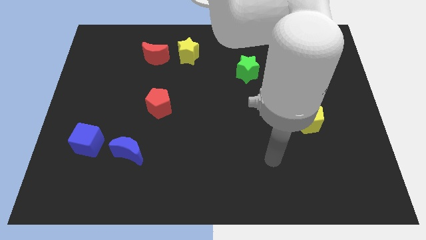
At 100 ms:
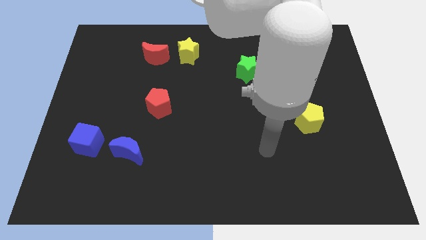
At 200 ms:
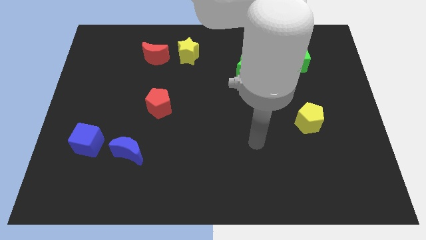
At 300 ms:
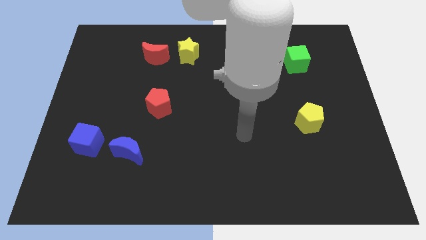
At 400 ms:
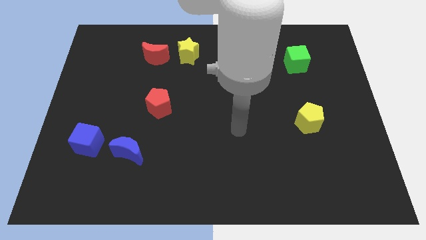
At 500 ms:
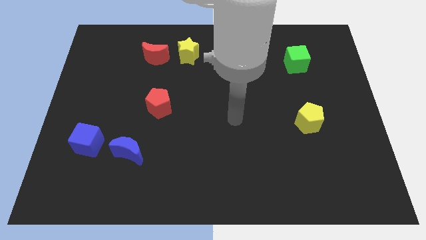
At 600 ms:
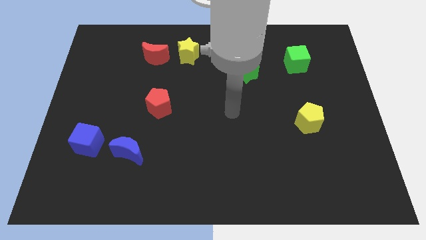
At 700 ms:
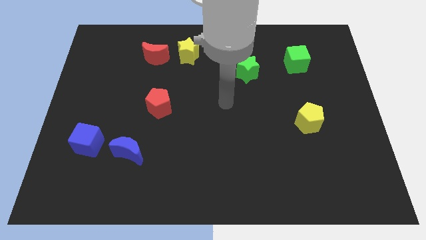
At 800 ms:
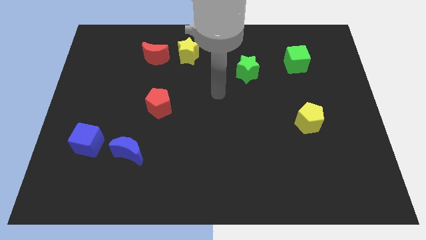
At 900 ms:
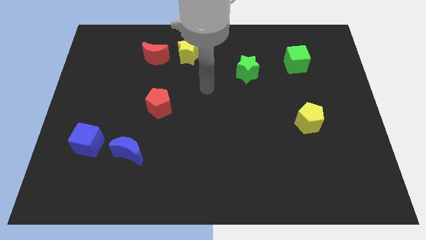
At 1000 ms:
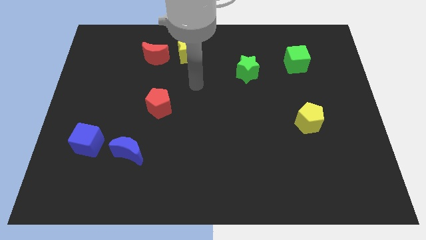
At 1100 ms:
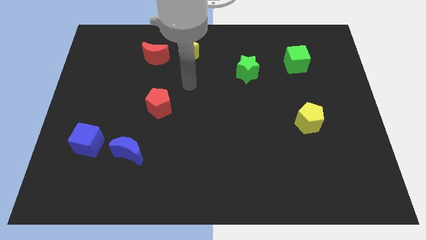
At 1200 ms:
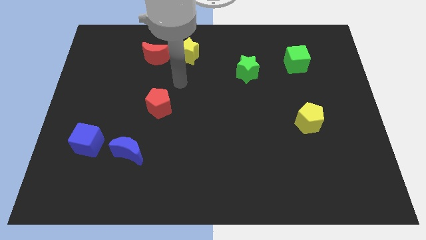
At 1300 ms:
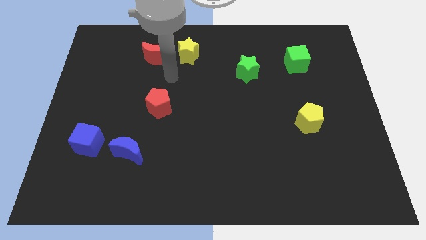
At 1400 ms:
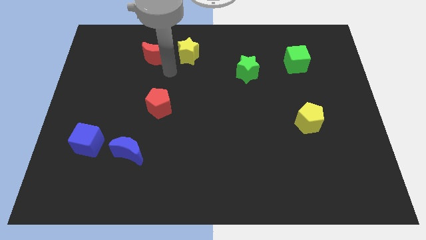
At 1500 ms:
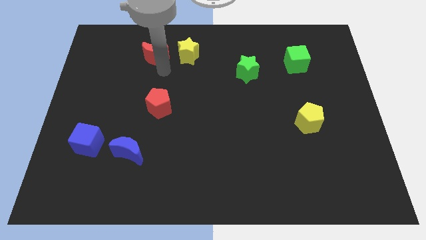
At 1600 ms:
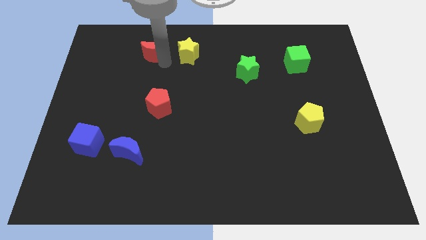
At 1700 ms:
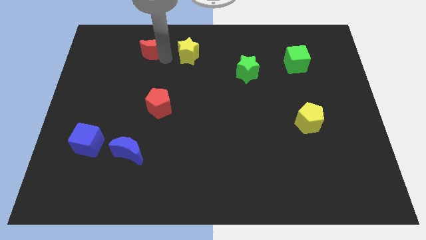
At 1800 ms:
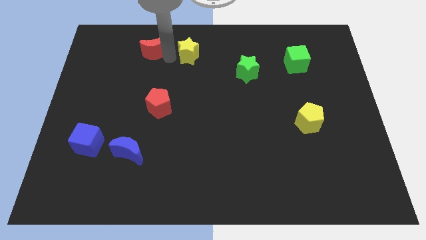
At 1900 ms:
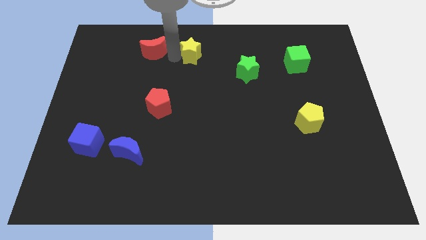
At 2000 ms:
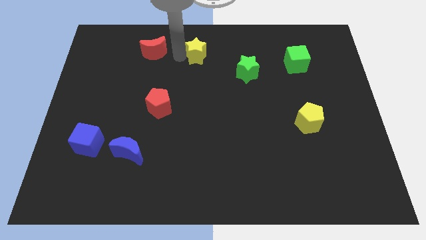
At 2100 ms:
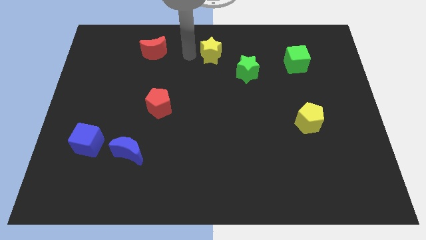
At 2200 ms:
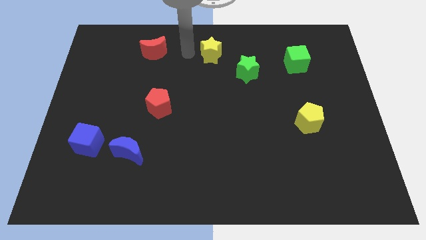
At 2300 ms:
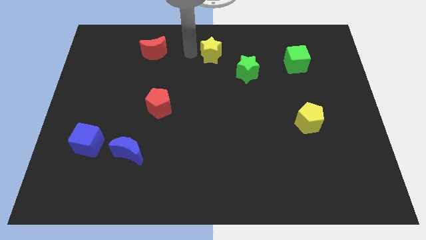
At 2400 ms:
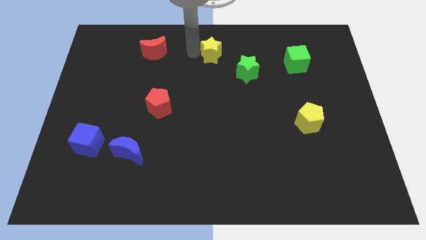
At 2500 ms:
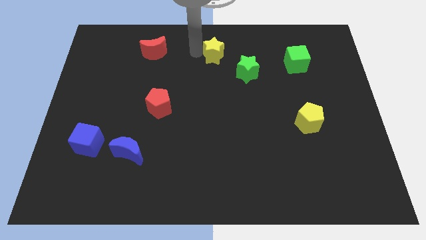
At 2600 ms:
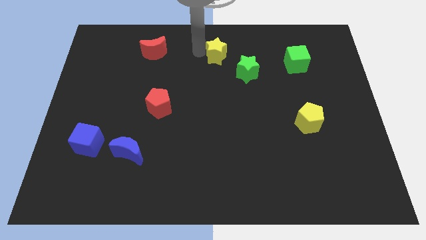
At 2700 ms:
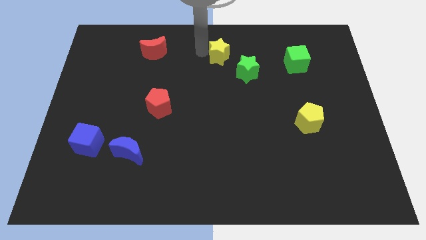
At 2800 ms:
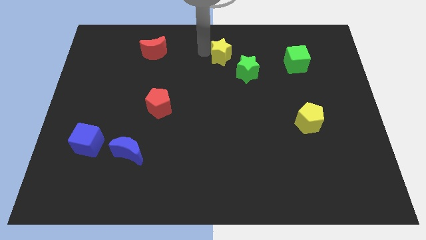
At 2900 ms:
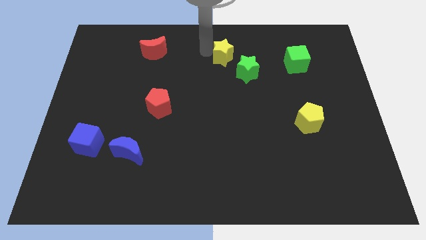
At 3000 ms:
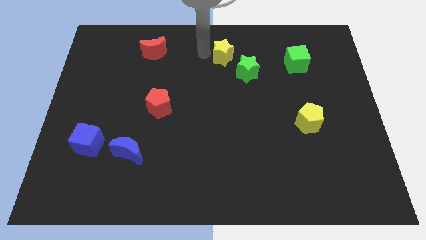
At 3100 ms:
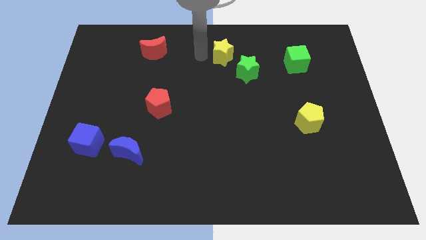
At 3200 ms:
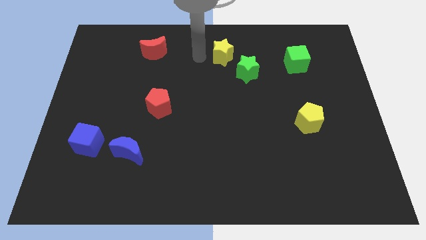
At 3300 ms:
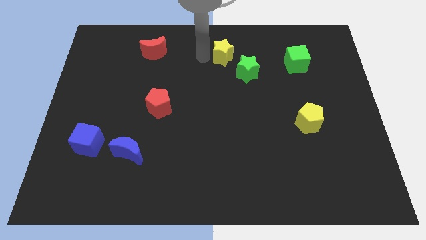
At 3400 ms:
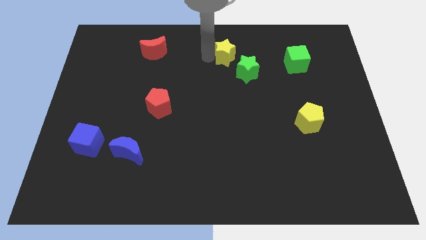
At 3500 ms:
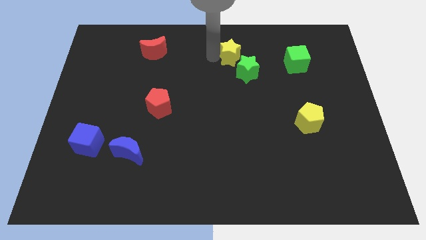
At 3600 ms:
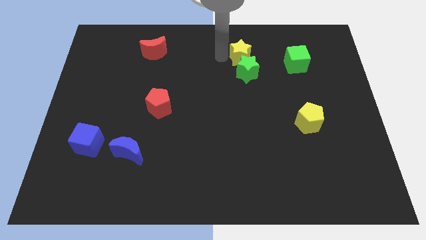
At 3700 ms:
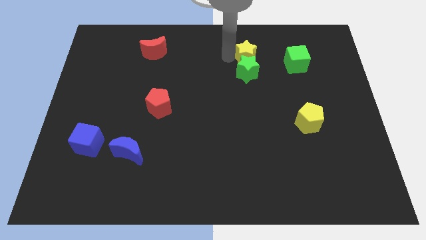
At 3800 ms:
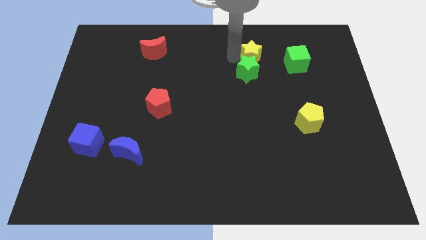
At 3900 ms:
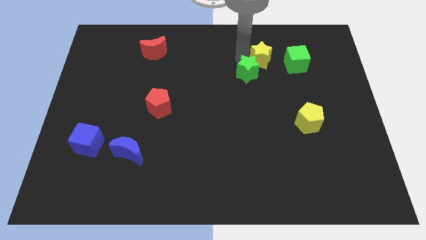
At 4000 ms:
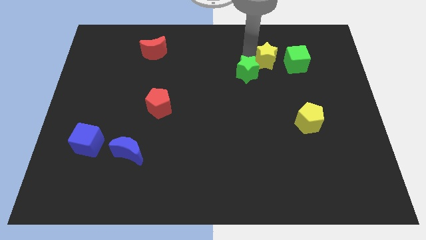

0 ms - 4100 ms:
move the yellow star right

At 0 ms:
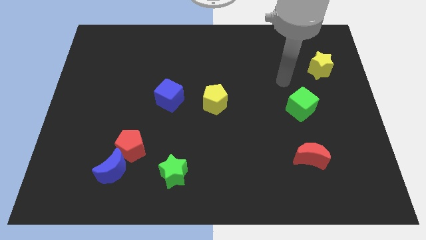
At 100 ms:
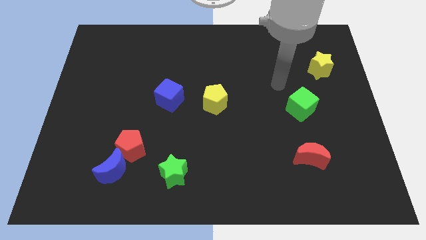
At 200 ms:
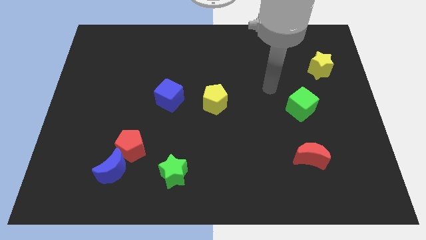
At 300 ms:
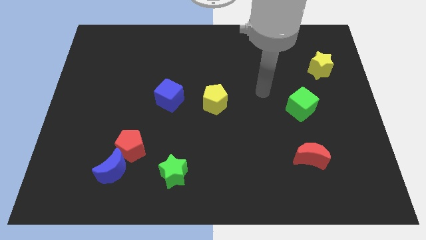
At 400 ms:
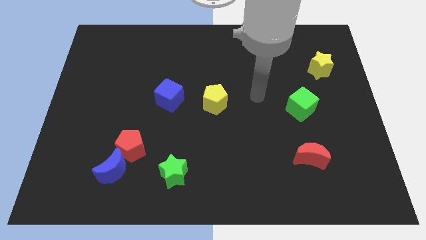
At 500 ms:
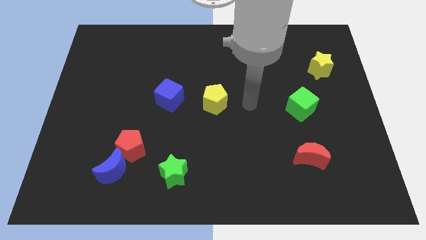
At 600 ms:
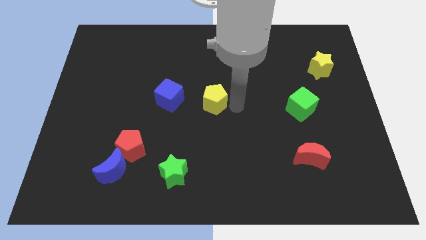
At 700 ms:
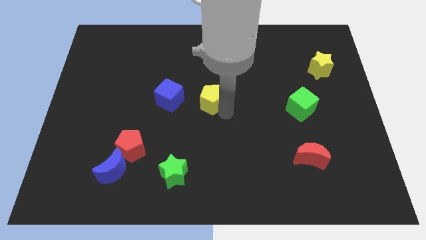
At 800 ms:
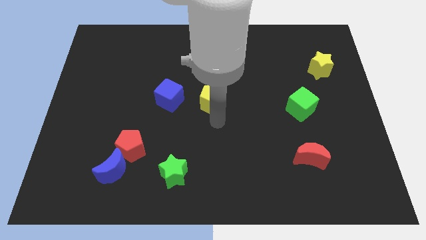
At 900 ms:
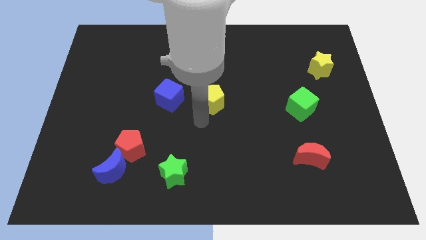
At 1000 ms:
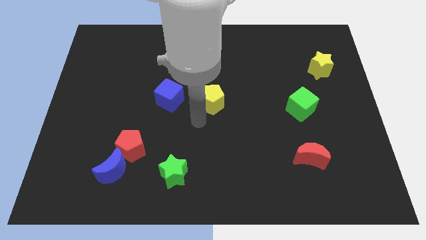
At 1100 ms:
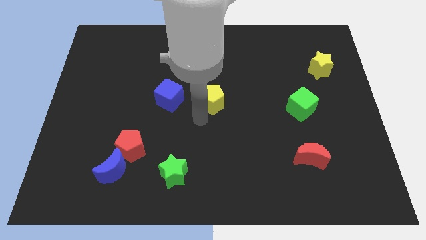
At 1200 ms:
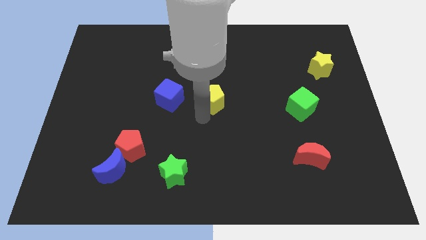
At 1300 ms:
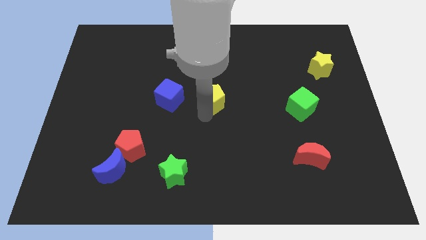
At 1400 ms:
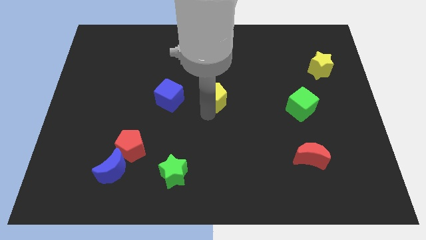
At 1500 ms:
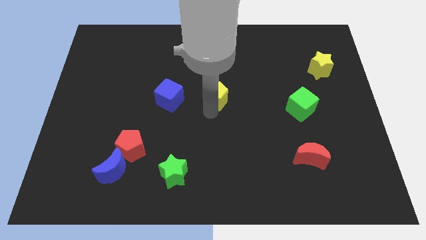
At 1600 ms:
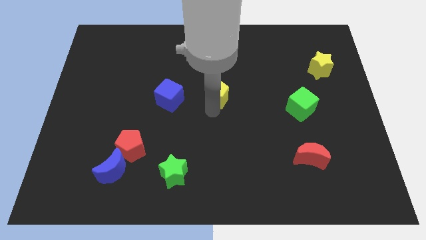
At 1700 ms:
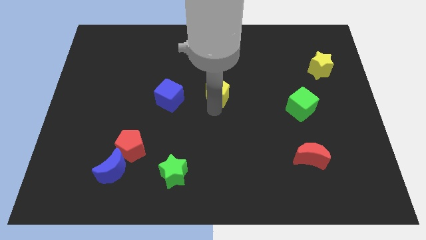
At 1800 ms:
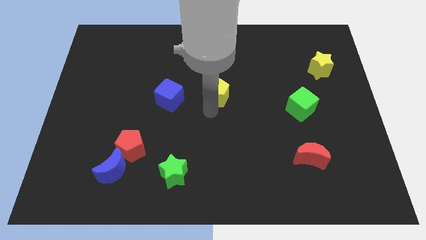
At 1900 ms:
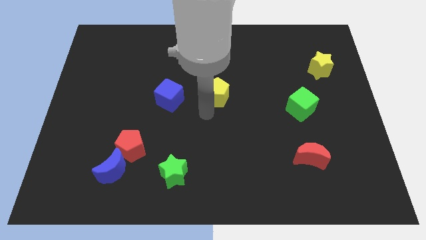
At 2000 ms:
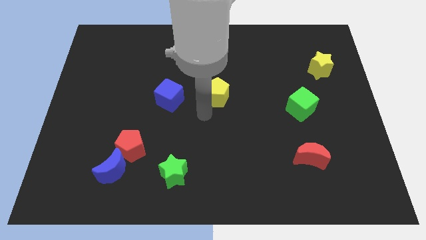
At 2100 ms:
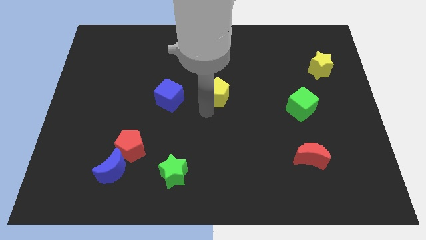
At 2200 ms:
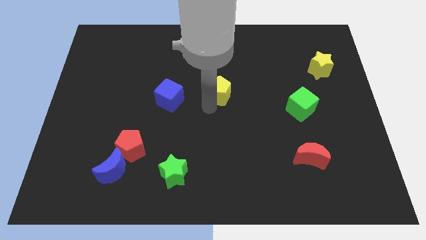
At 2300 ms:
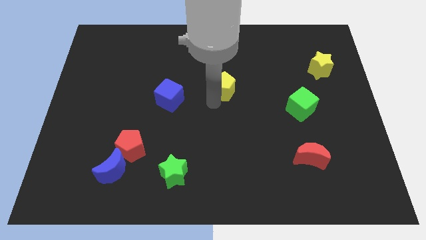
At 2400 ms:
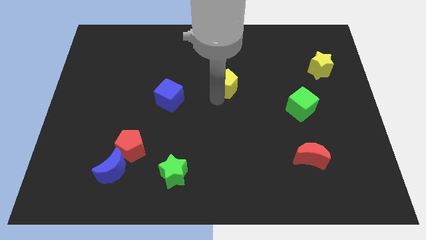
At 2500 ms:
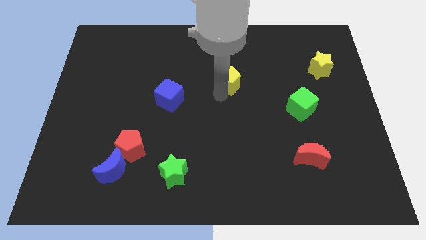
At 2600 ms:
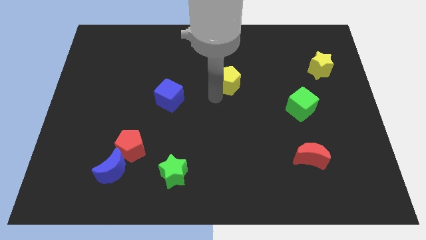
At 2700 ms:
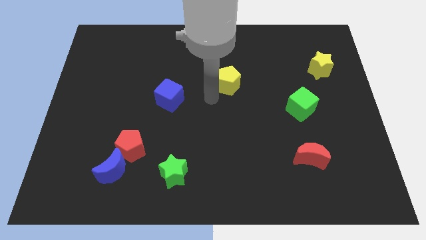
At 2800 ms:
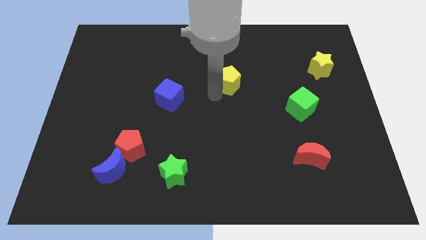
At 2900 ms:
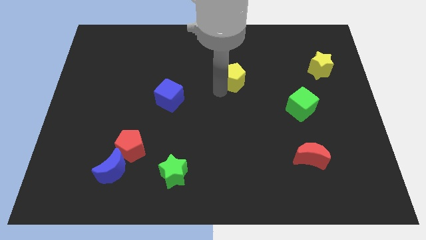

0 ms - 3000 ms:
slightly push the yellow pentagon upwards and then right

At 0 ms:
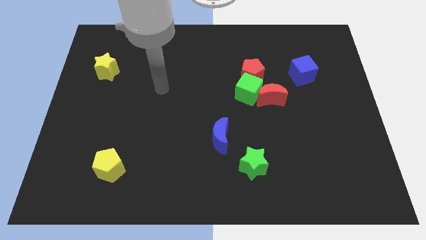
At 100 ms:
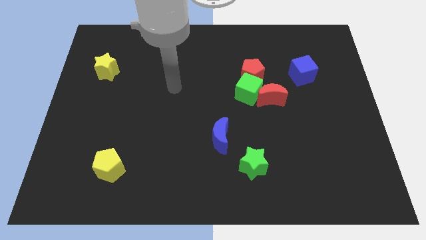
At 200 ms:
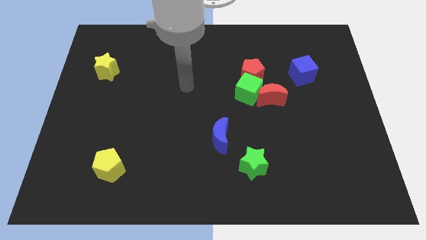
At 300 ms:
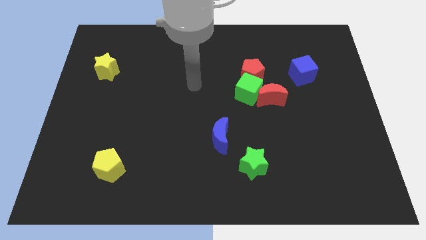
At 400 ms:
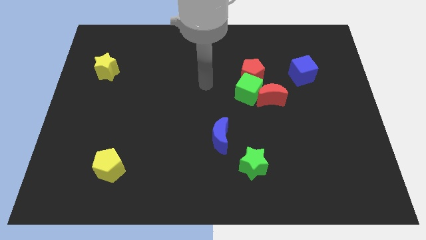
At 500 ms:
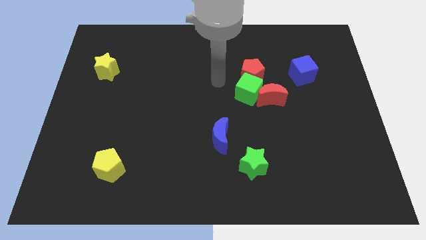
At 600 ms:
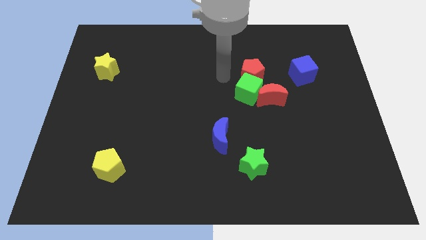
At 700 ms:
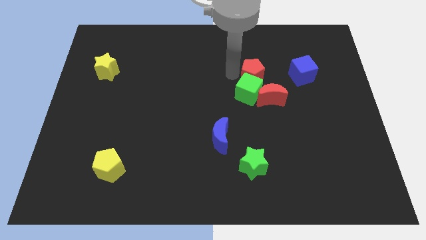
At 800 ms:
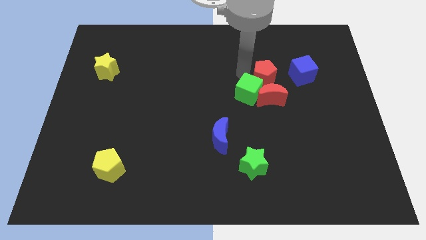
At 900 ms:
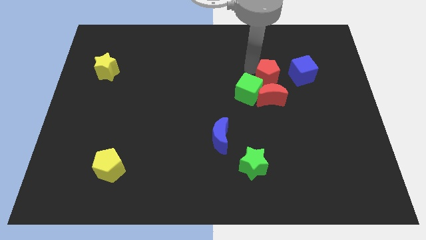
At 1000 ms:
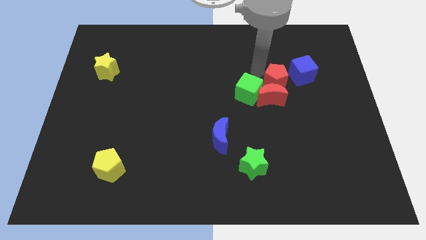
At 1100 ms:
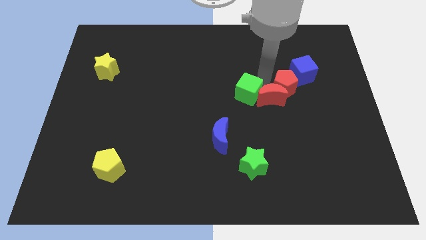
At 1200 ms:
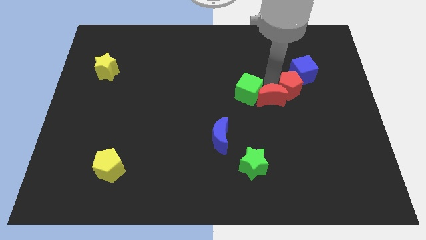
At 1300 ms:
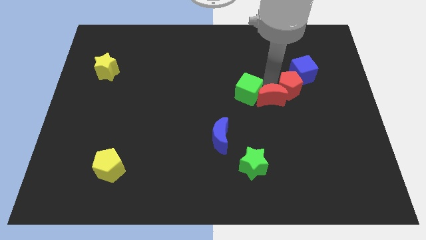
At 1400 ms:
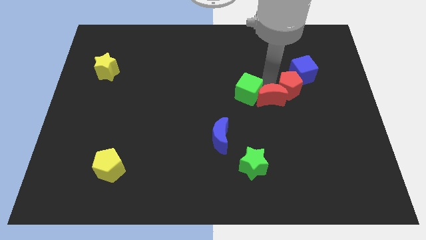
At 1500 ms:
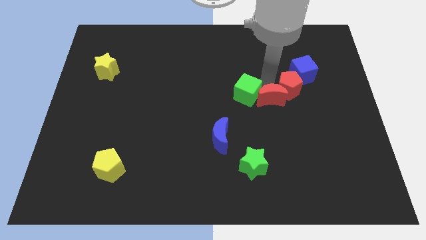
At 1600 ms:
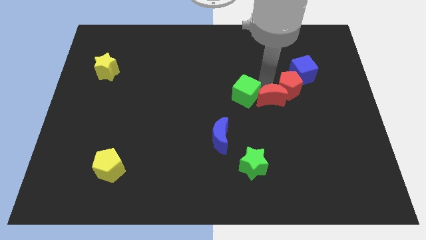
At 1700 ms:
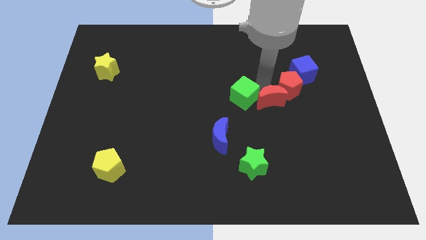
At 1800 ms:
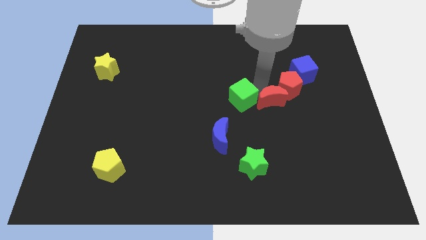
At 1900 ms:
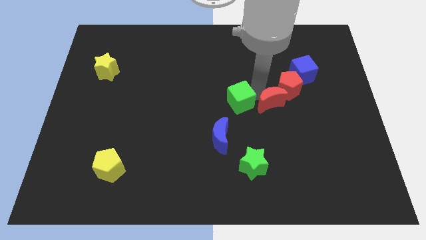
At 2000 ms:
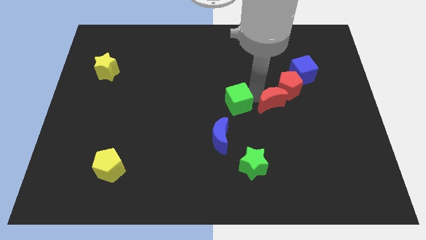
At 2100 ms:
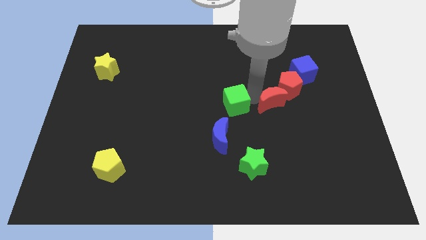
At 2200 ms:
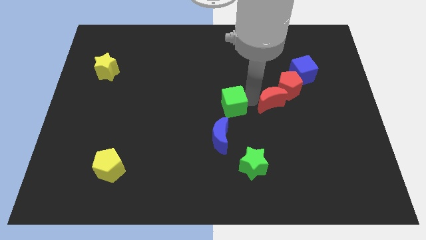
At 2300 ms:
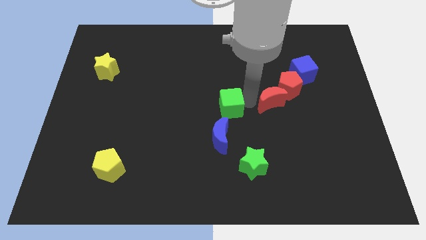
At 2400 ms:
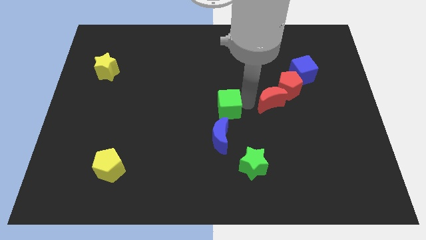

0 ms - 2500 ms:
push the green cube downwards and to the left slightly
